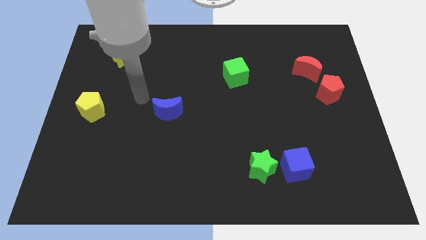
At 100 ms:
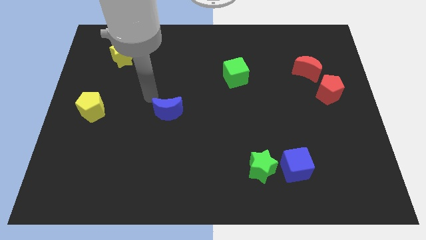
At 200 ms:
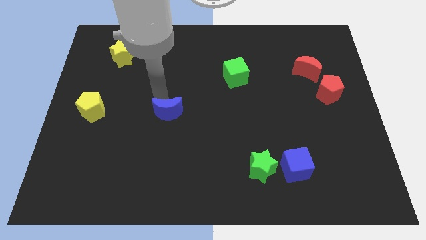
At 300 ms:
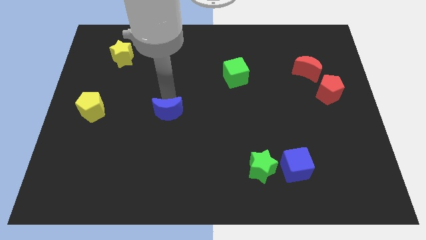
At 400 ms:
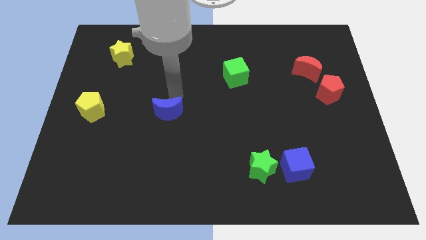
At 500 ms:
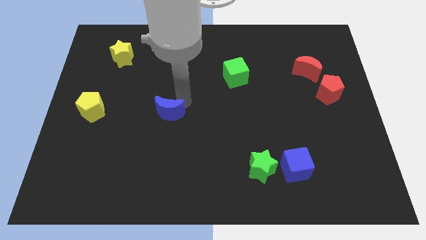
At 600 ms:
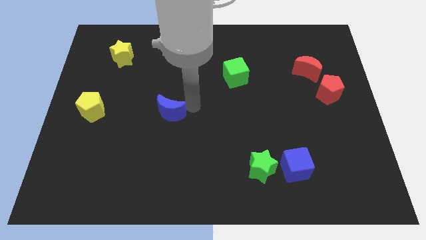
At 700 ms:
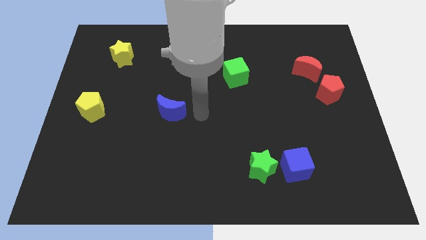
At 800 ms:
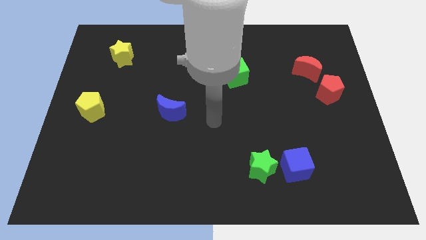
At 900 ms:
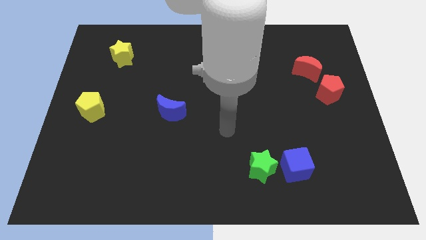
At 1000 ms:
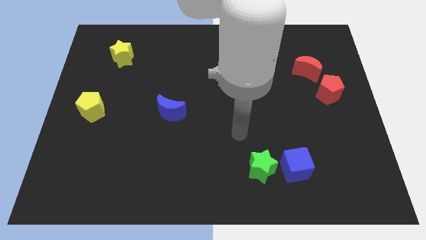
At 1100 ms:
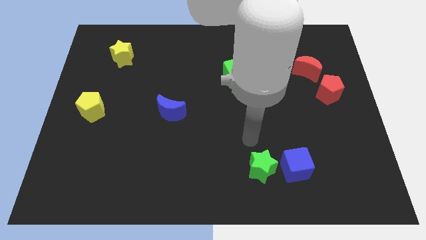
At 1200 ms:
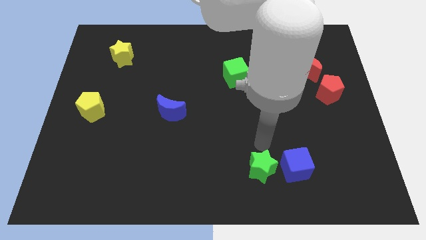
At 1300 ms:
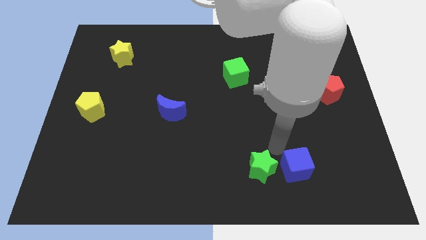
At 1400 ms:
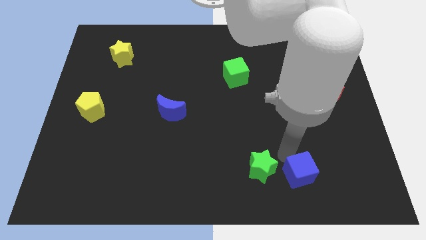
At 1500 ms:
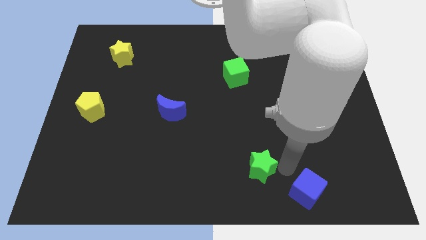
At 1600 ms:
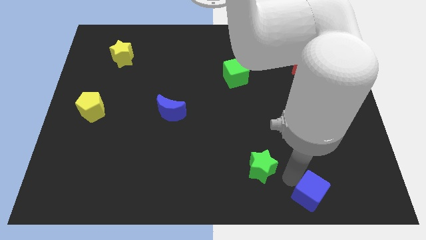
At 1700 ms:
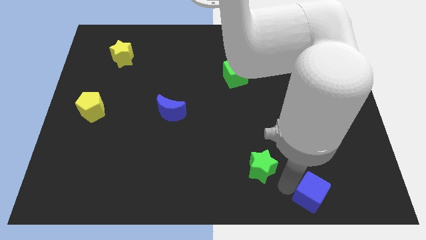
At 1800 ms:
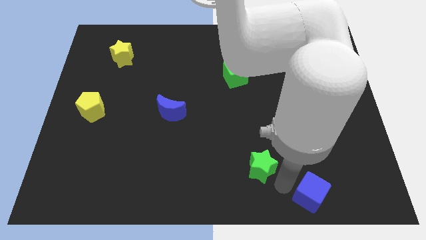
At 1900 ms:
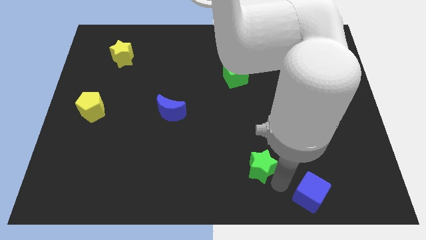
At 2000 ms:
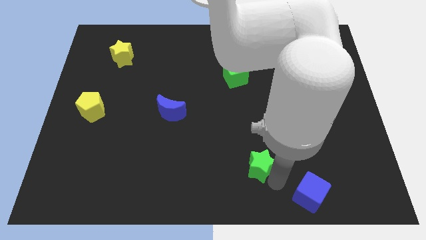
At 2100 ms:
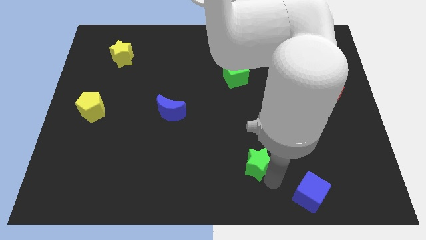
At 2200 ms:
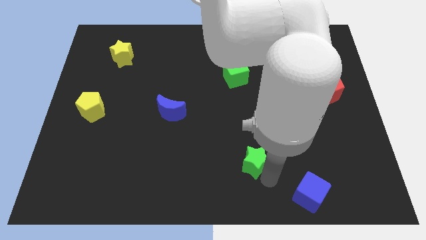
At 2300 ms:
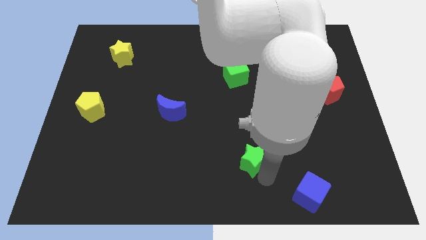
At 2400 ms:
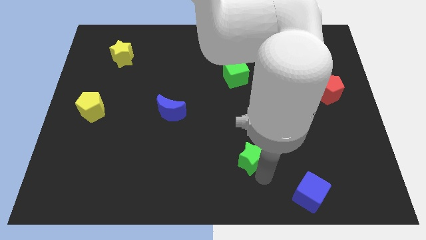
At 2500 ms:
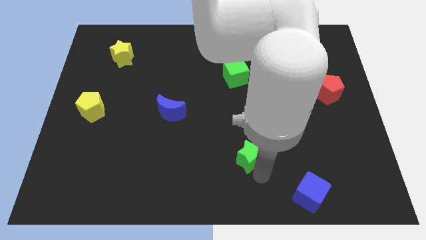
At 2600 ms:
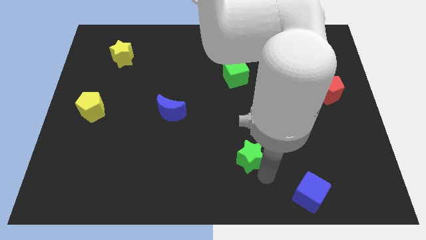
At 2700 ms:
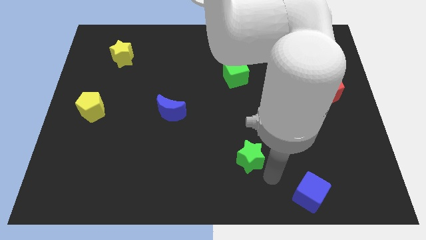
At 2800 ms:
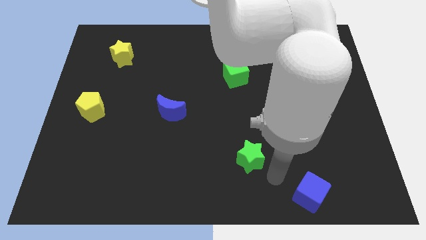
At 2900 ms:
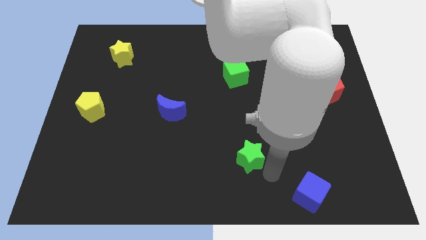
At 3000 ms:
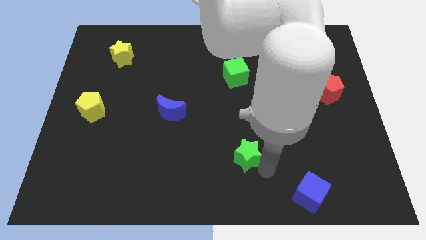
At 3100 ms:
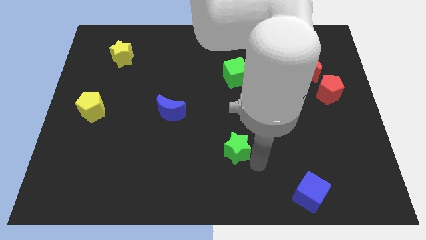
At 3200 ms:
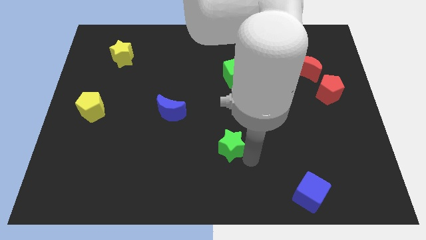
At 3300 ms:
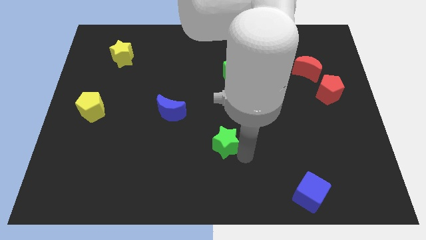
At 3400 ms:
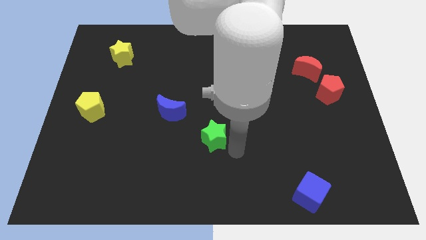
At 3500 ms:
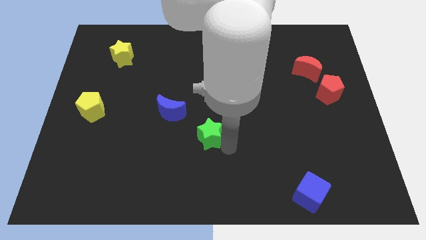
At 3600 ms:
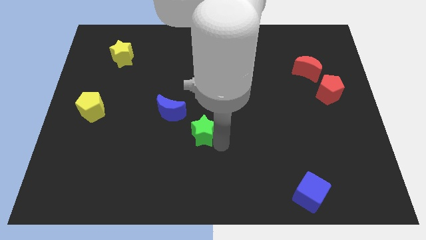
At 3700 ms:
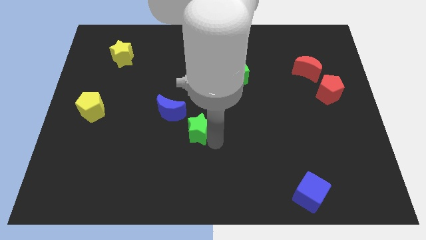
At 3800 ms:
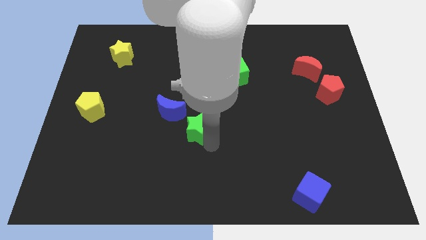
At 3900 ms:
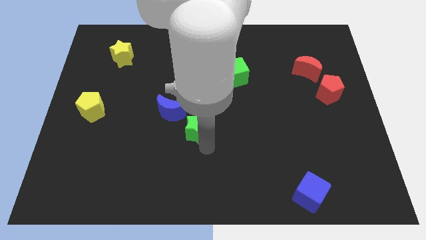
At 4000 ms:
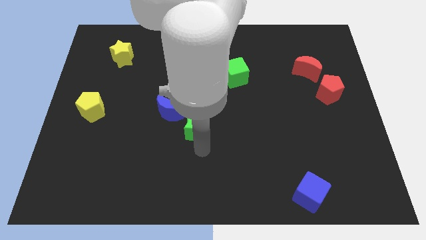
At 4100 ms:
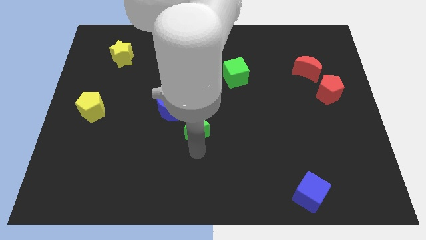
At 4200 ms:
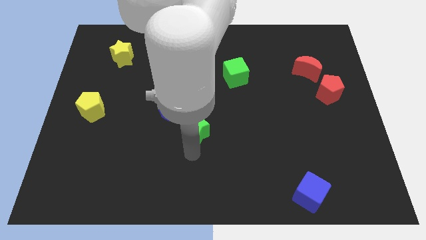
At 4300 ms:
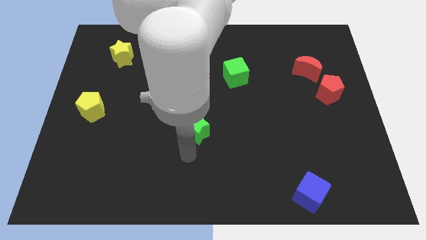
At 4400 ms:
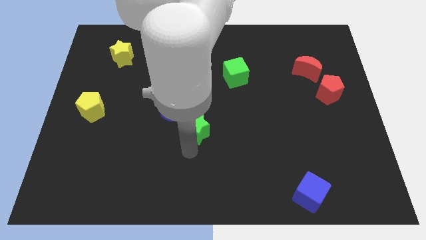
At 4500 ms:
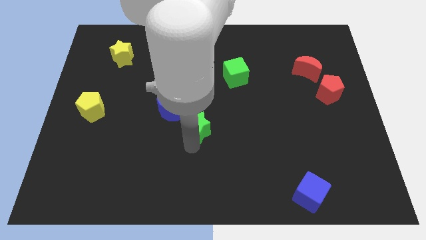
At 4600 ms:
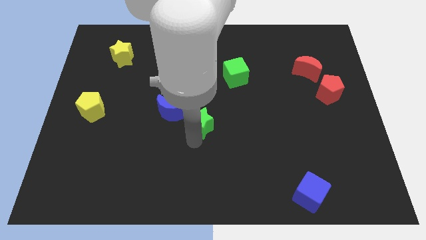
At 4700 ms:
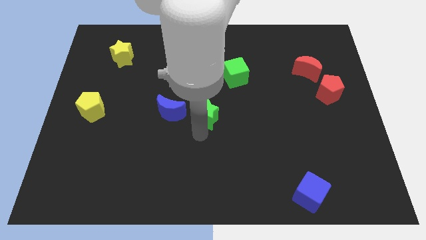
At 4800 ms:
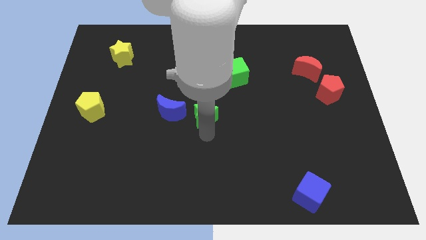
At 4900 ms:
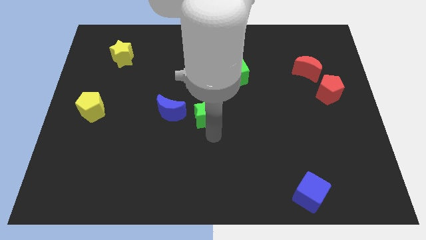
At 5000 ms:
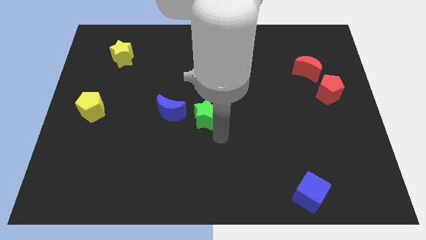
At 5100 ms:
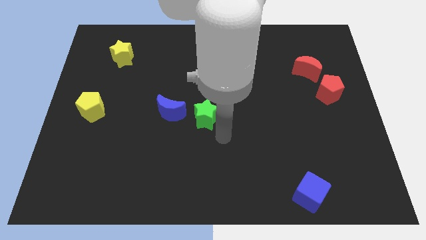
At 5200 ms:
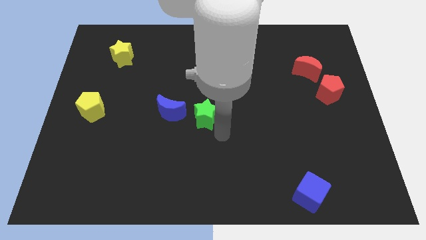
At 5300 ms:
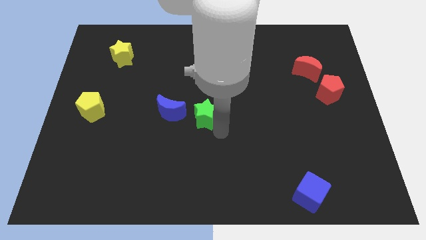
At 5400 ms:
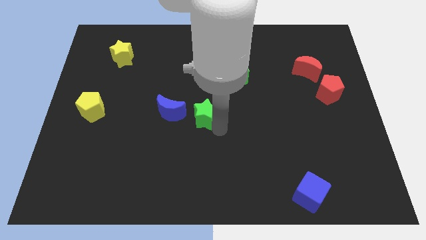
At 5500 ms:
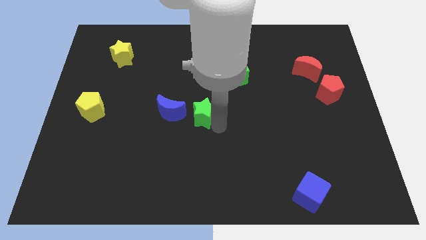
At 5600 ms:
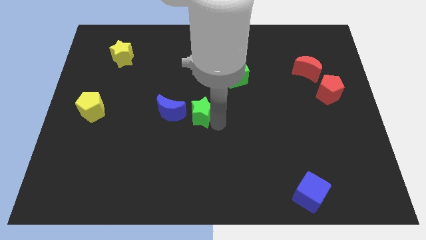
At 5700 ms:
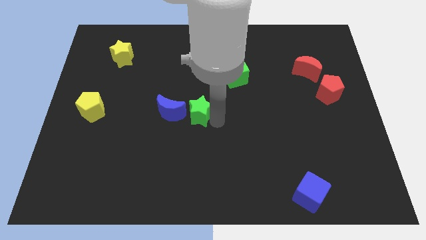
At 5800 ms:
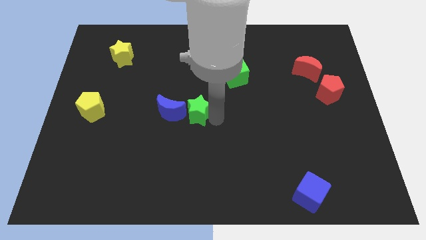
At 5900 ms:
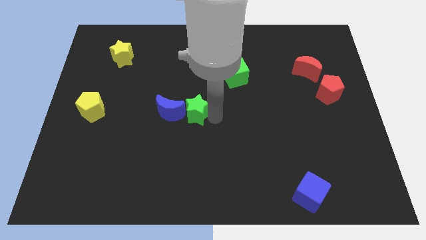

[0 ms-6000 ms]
push the green star up and to the left diagonally

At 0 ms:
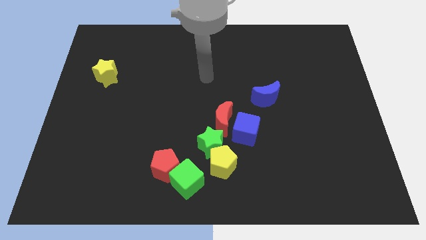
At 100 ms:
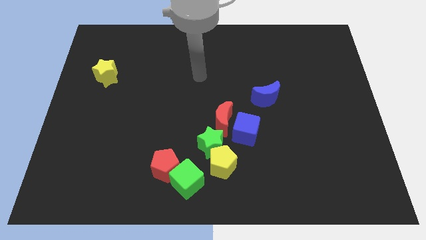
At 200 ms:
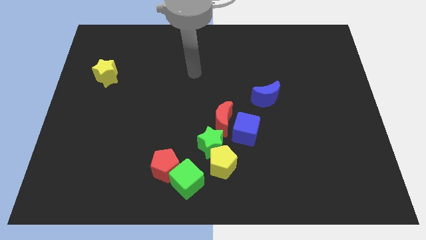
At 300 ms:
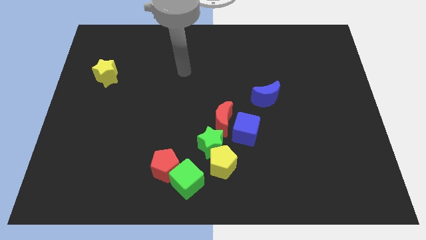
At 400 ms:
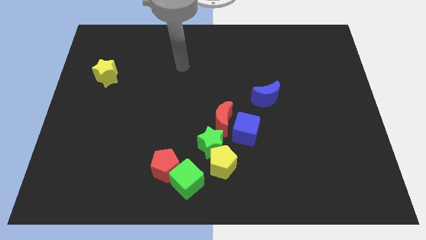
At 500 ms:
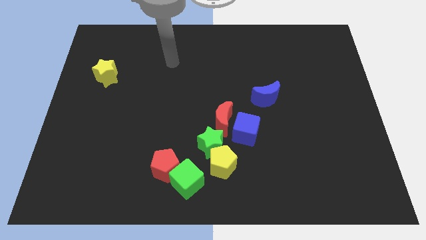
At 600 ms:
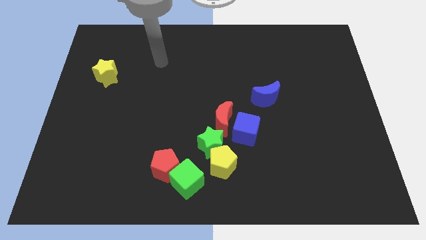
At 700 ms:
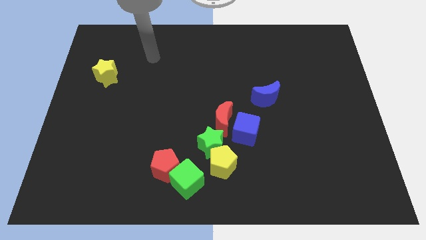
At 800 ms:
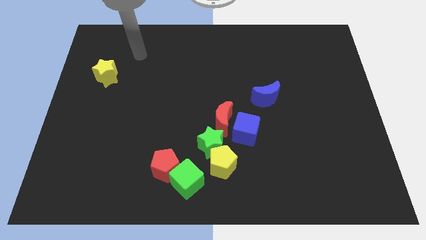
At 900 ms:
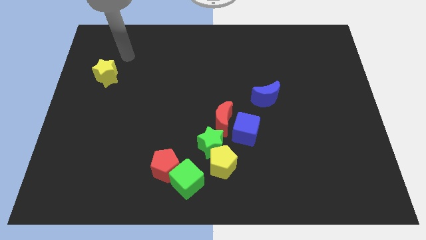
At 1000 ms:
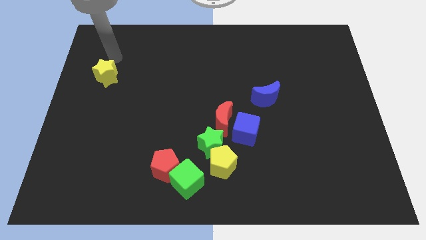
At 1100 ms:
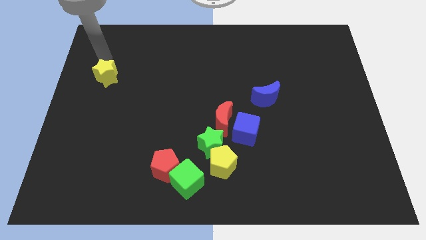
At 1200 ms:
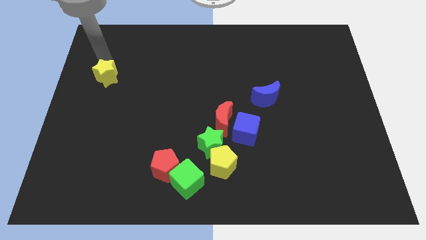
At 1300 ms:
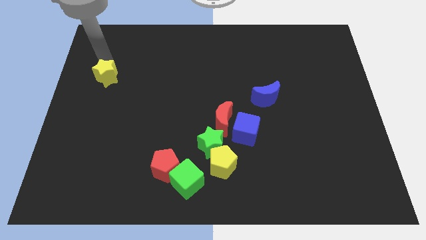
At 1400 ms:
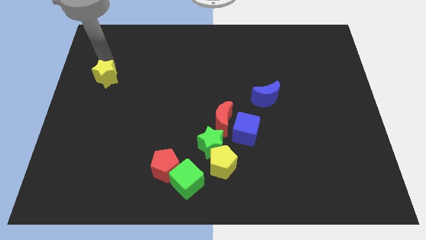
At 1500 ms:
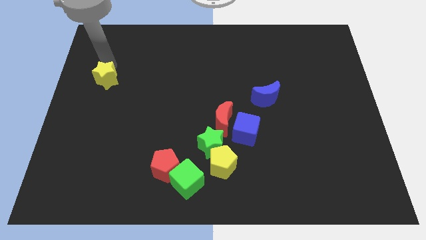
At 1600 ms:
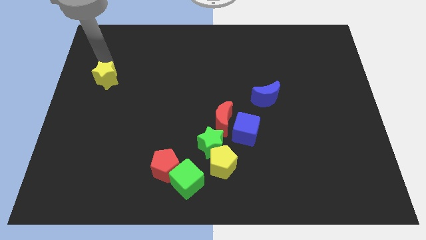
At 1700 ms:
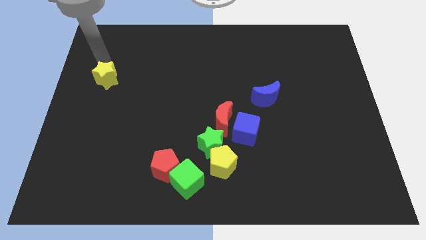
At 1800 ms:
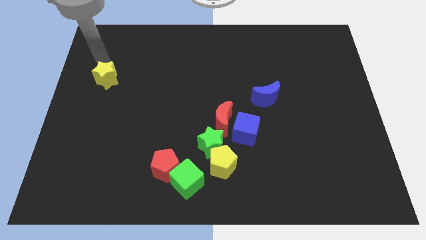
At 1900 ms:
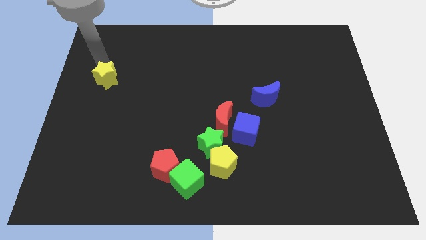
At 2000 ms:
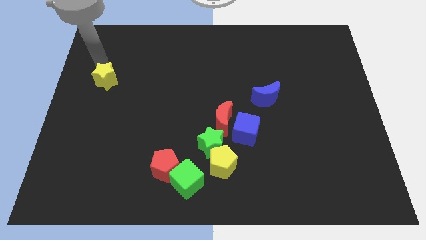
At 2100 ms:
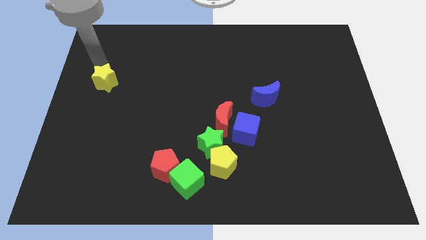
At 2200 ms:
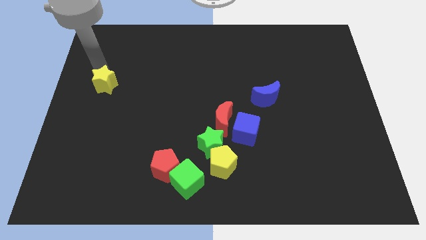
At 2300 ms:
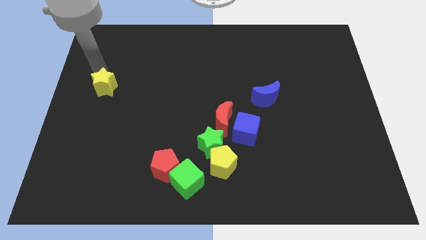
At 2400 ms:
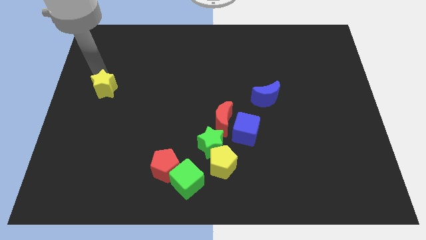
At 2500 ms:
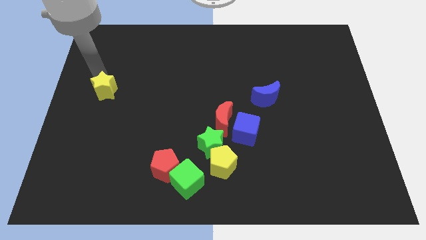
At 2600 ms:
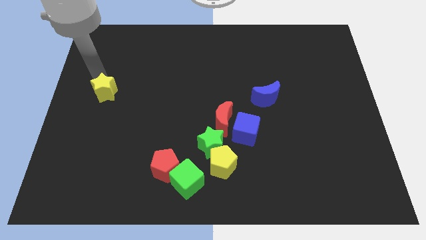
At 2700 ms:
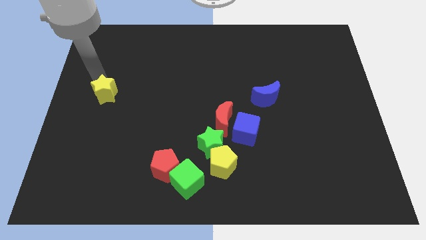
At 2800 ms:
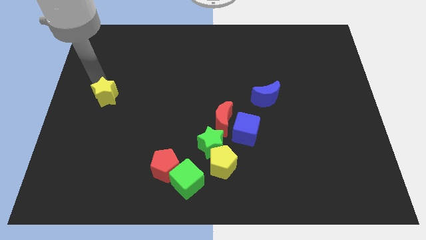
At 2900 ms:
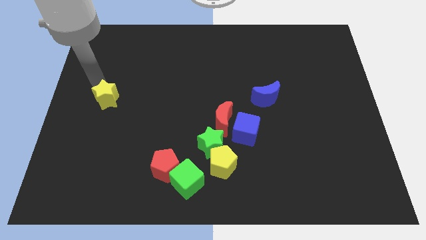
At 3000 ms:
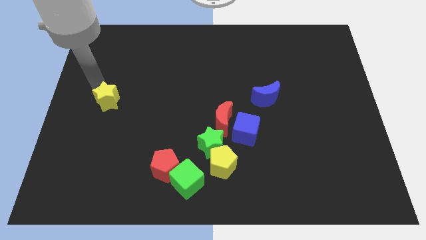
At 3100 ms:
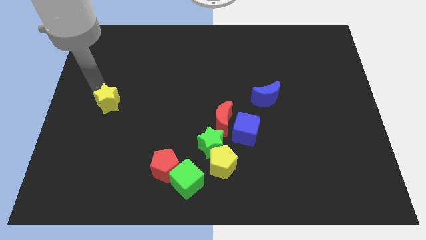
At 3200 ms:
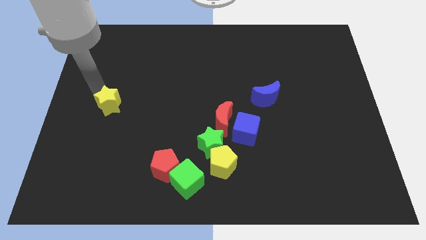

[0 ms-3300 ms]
slightly slide the yellow star diagonally down and right
